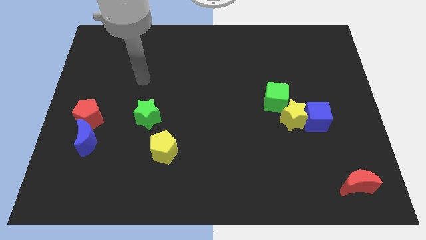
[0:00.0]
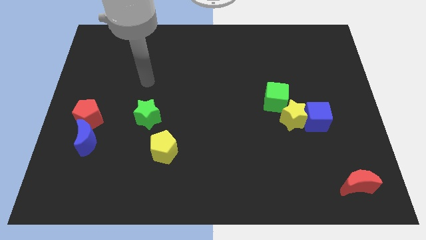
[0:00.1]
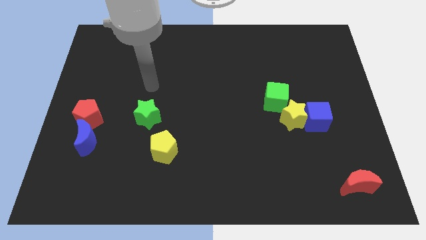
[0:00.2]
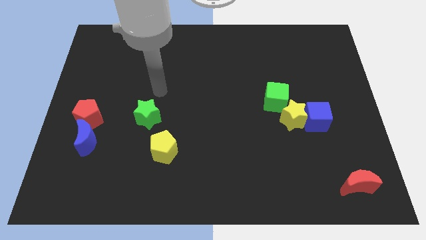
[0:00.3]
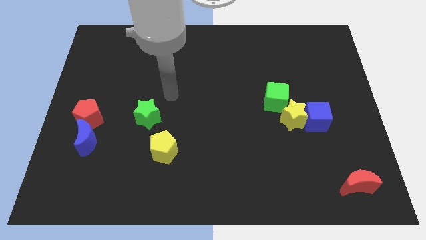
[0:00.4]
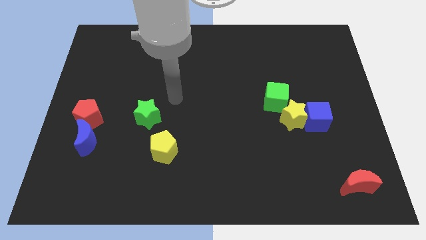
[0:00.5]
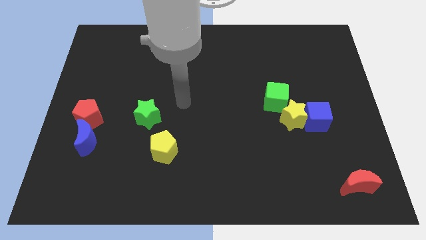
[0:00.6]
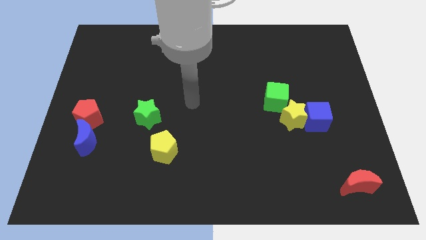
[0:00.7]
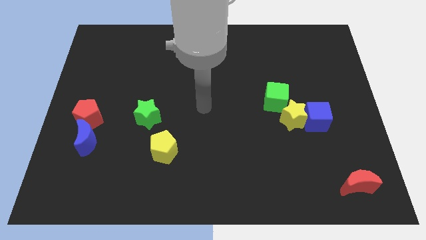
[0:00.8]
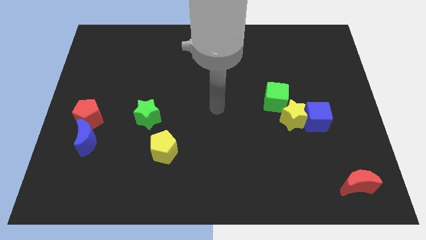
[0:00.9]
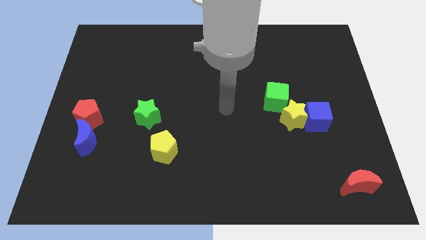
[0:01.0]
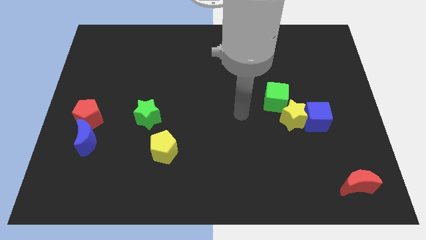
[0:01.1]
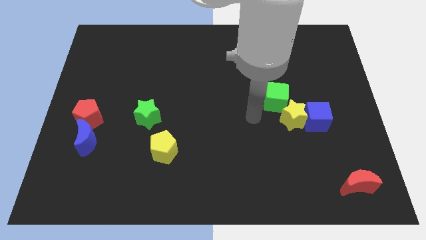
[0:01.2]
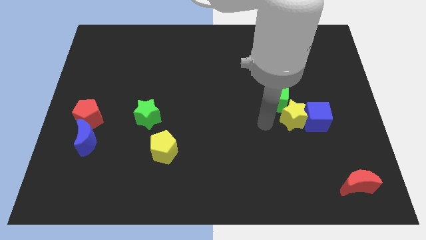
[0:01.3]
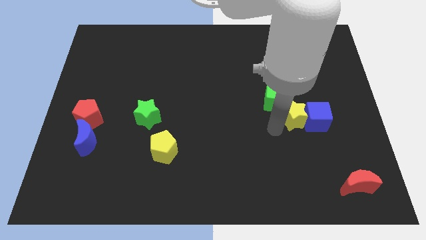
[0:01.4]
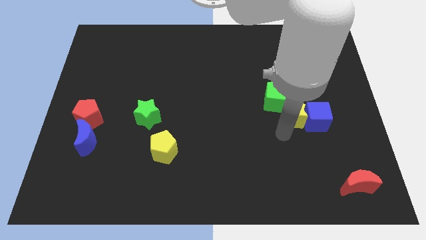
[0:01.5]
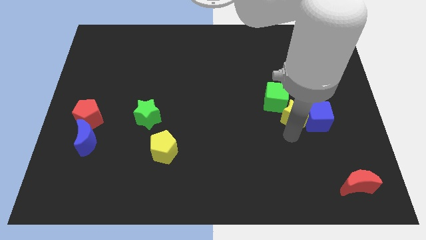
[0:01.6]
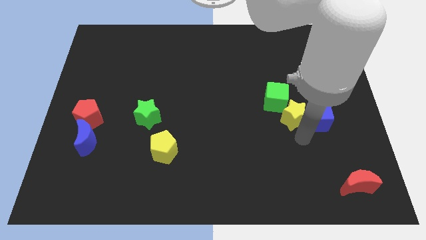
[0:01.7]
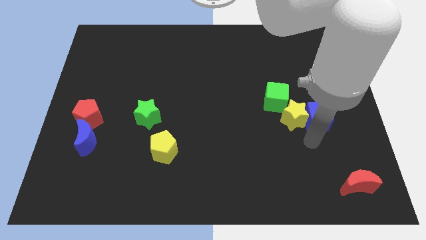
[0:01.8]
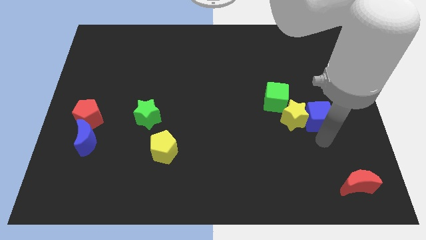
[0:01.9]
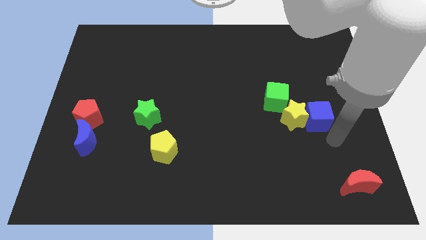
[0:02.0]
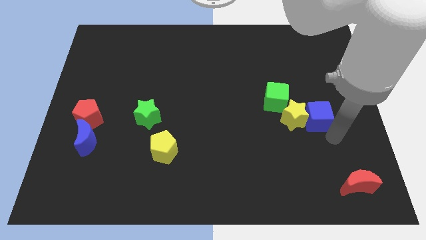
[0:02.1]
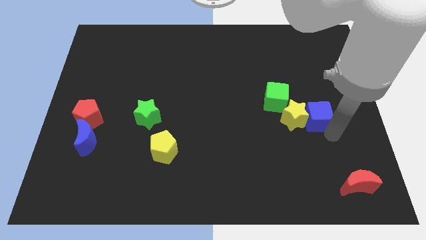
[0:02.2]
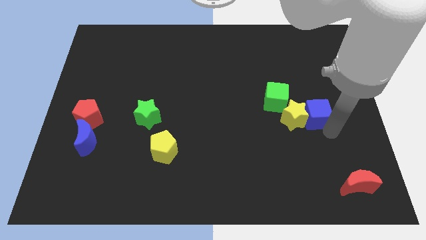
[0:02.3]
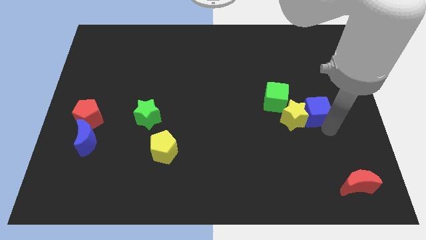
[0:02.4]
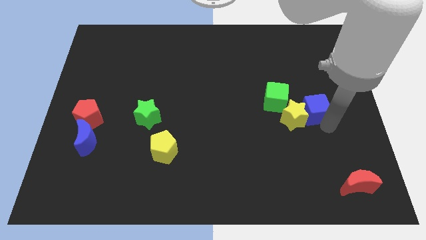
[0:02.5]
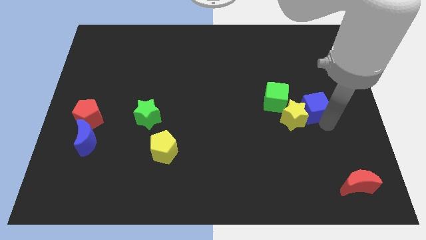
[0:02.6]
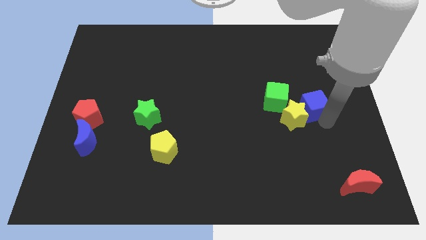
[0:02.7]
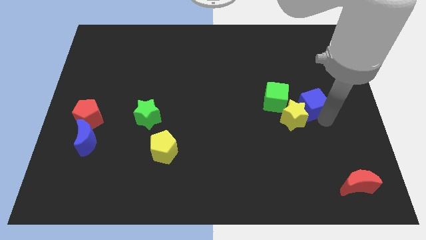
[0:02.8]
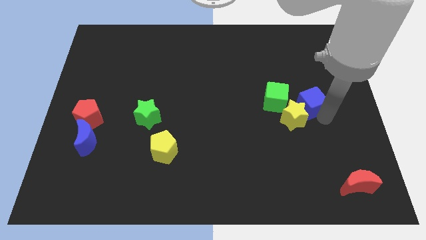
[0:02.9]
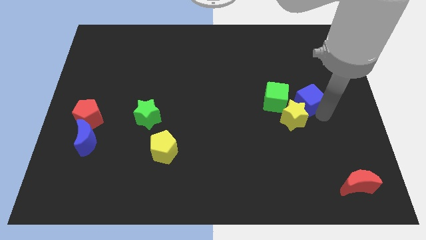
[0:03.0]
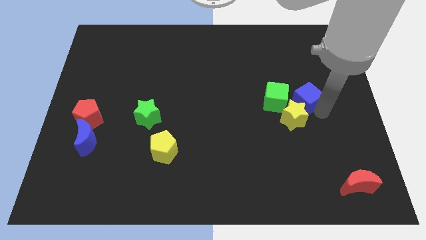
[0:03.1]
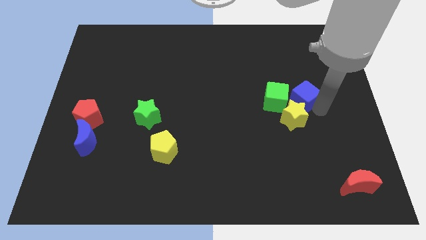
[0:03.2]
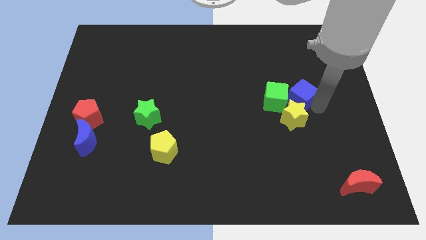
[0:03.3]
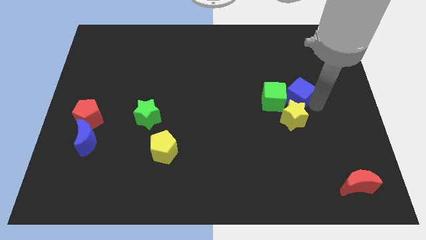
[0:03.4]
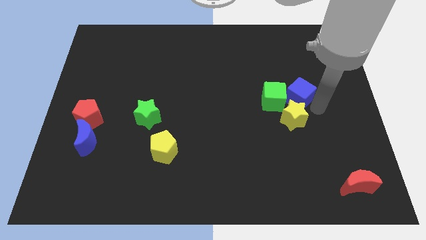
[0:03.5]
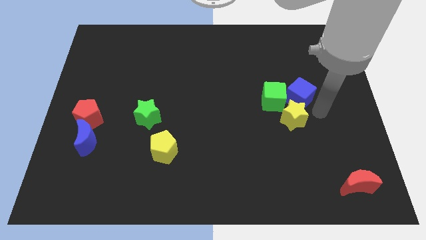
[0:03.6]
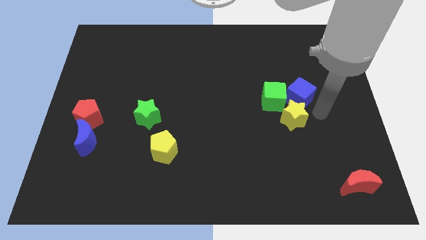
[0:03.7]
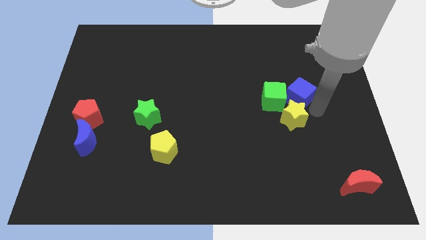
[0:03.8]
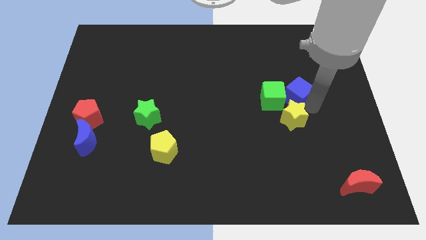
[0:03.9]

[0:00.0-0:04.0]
push the blue cube a bit up and left diagonally

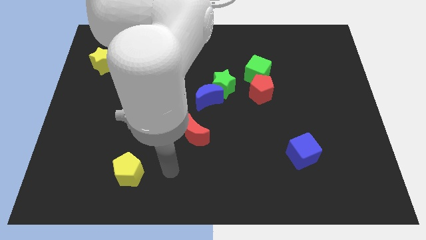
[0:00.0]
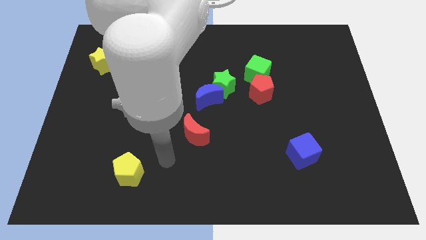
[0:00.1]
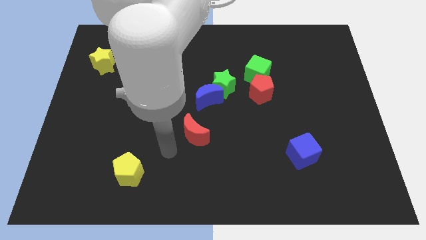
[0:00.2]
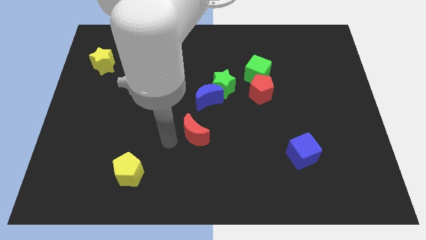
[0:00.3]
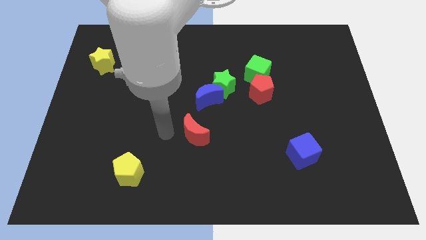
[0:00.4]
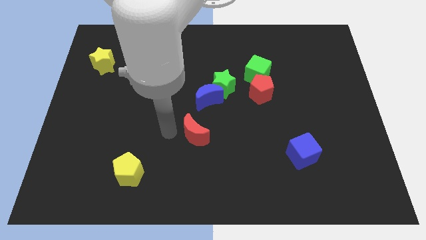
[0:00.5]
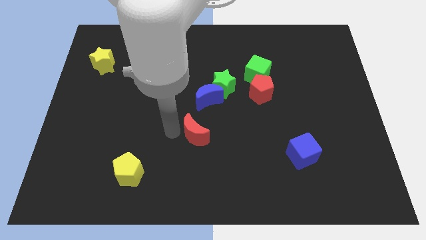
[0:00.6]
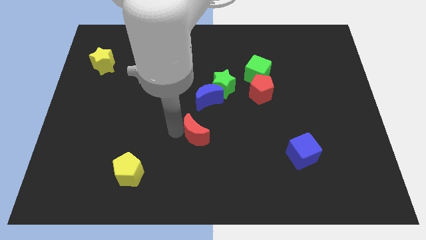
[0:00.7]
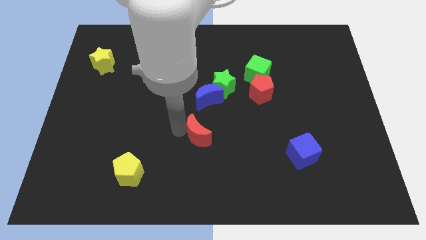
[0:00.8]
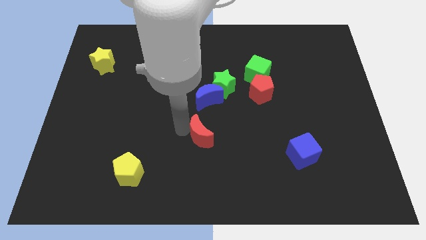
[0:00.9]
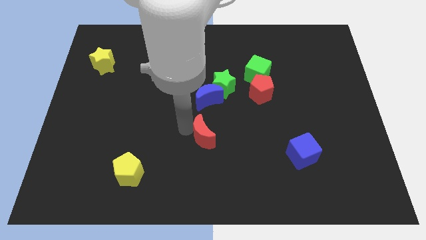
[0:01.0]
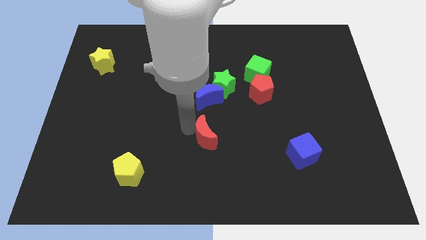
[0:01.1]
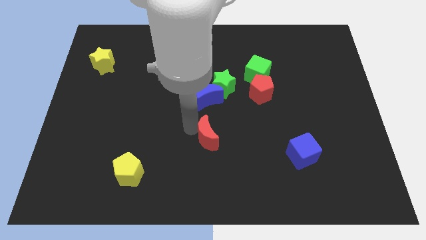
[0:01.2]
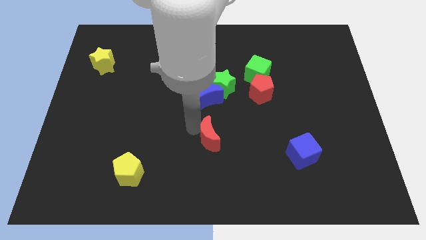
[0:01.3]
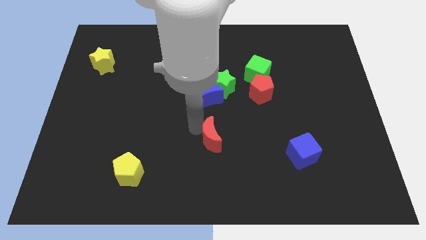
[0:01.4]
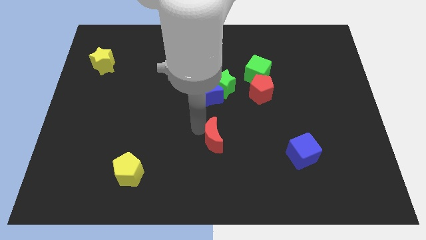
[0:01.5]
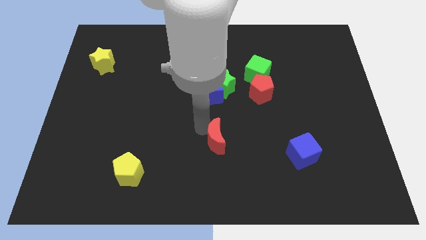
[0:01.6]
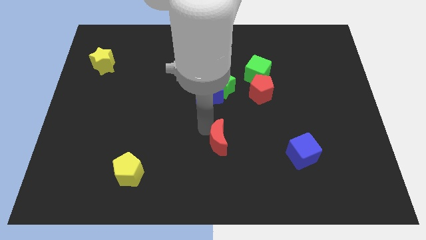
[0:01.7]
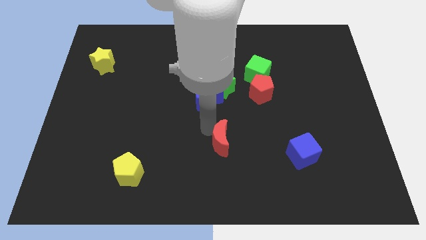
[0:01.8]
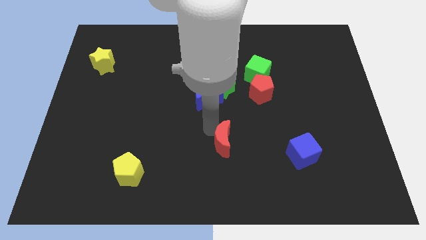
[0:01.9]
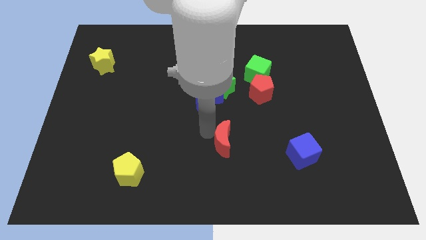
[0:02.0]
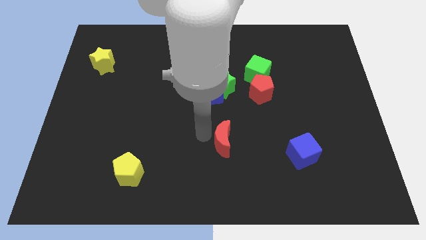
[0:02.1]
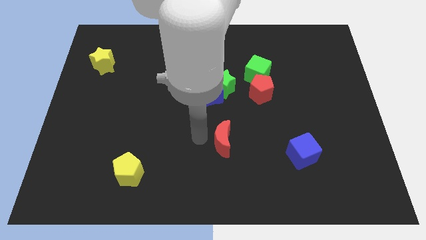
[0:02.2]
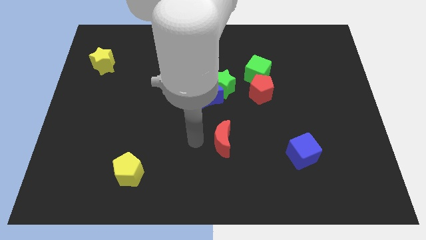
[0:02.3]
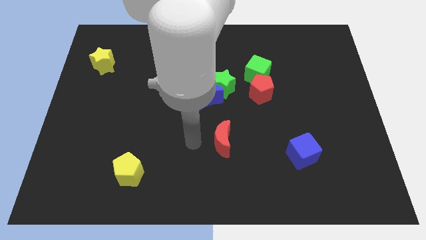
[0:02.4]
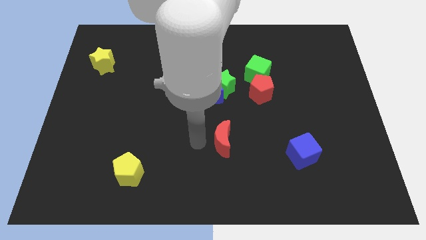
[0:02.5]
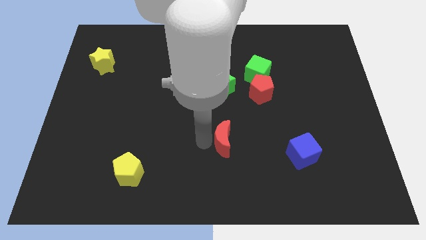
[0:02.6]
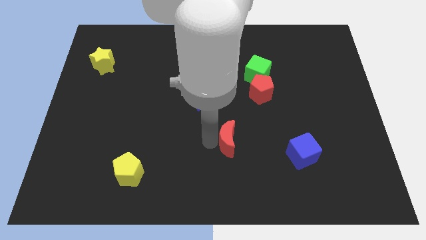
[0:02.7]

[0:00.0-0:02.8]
slide the red moon somewhat to the right

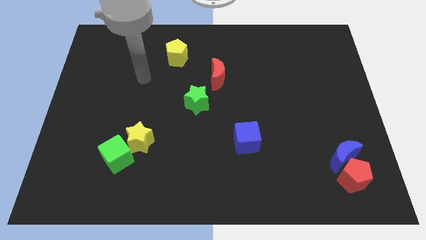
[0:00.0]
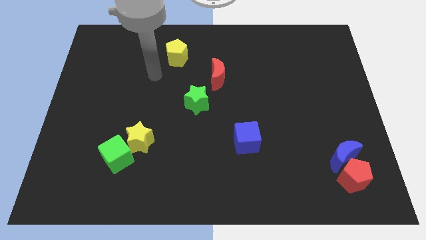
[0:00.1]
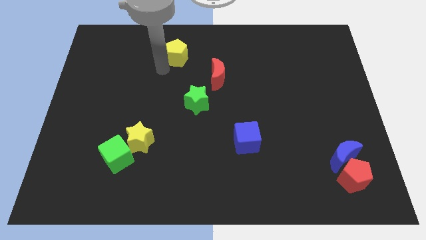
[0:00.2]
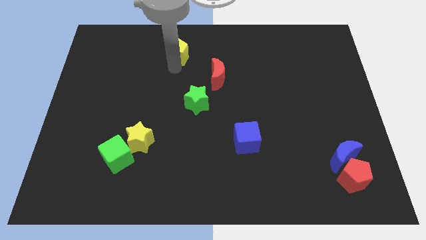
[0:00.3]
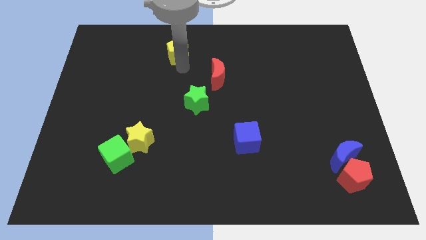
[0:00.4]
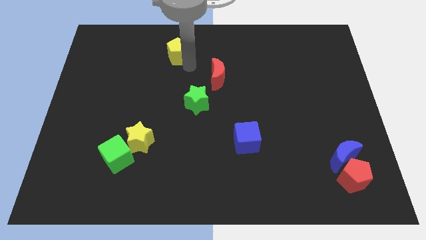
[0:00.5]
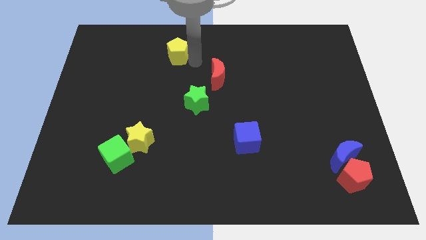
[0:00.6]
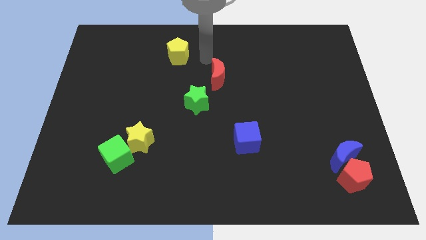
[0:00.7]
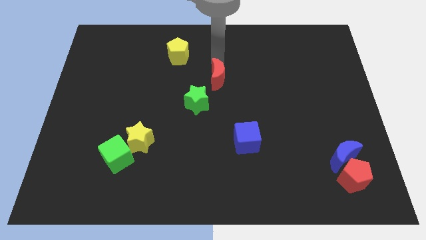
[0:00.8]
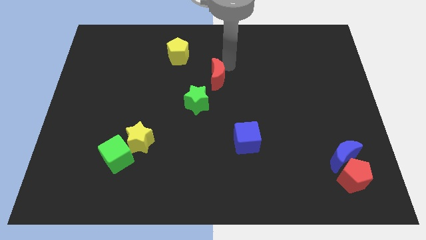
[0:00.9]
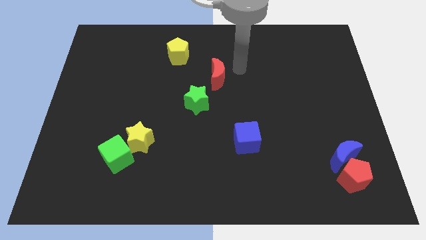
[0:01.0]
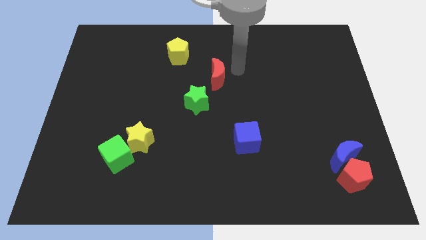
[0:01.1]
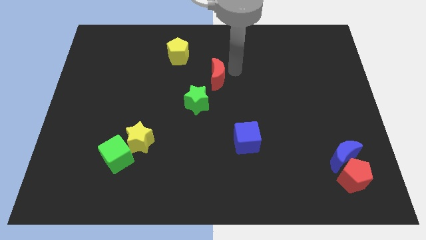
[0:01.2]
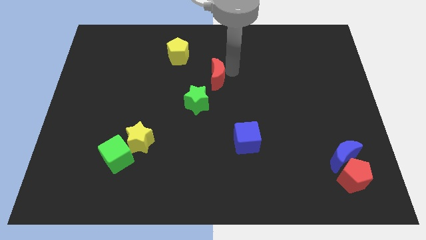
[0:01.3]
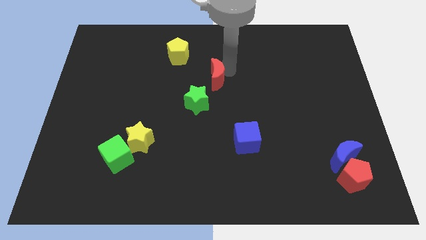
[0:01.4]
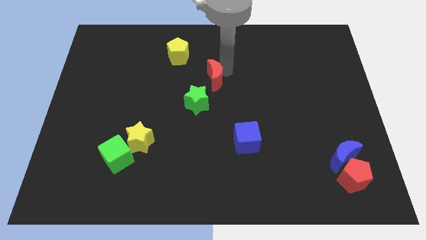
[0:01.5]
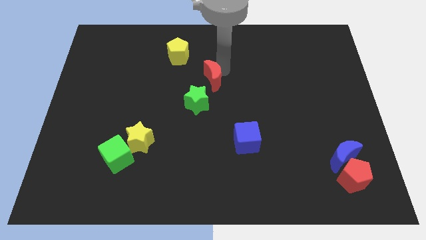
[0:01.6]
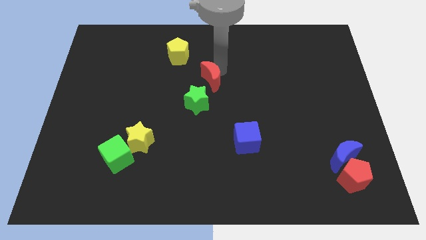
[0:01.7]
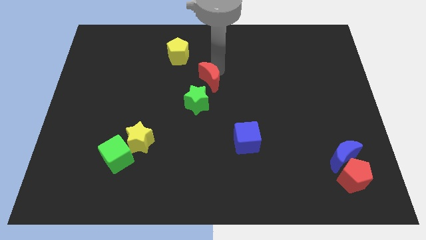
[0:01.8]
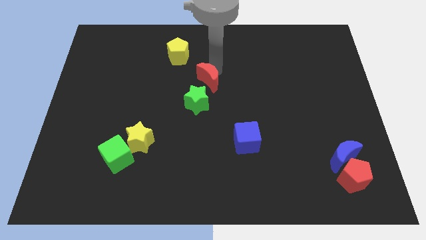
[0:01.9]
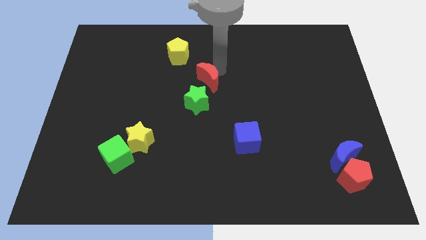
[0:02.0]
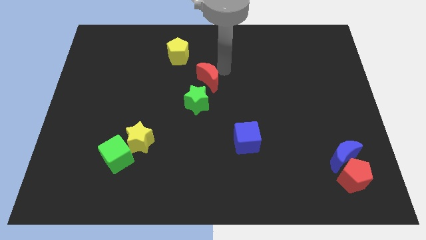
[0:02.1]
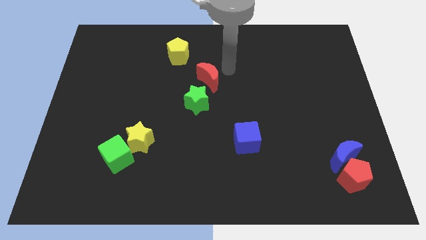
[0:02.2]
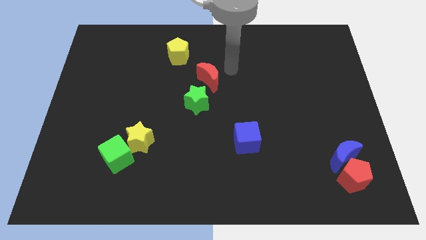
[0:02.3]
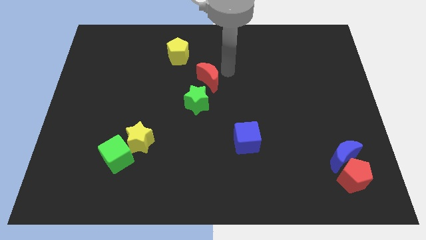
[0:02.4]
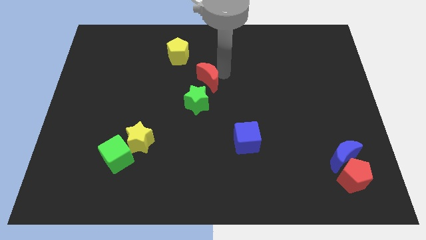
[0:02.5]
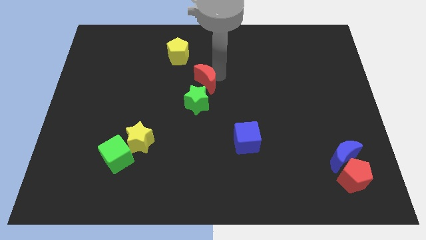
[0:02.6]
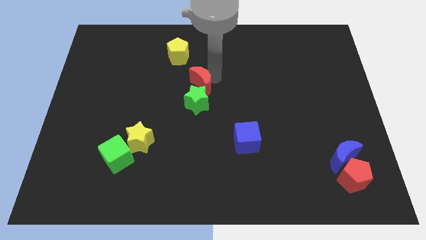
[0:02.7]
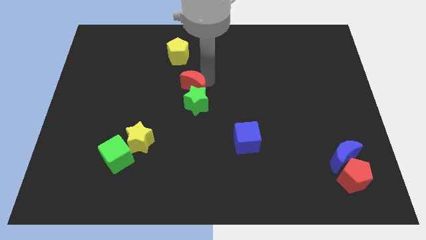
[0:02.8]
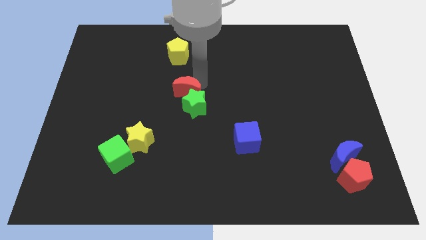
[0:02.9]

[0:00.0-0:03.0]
slide the red moon downwards and to the left diagonally a little
